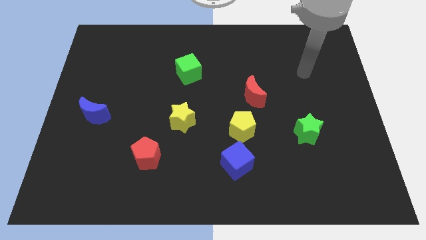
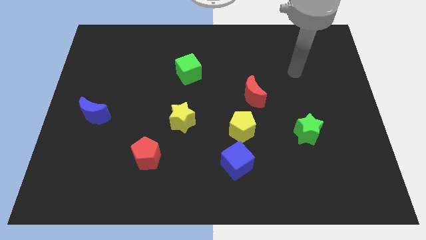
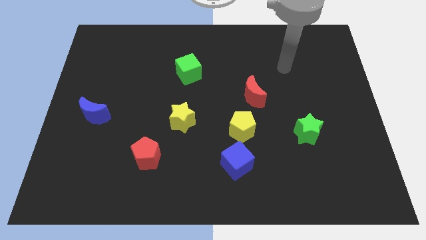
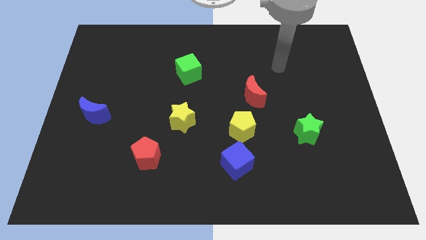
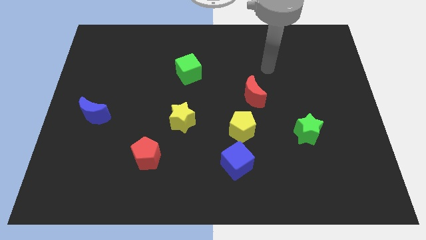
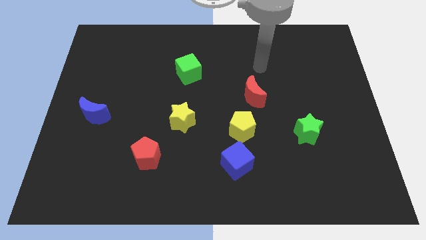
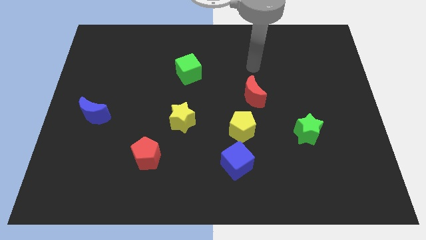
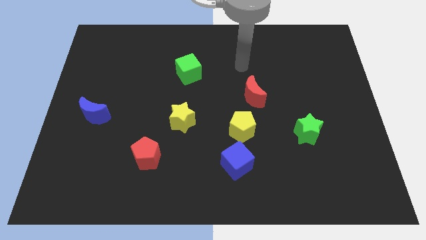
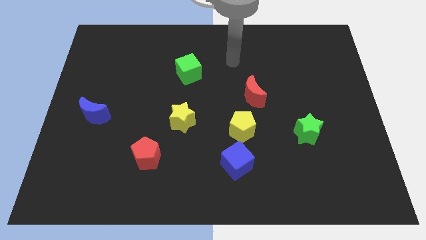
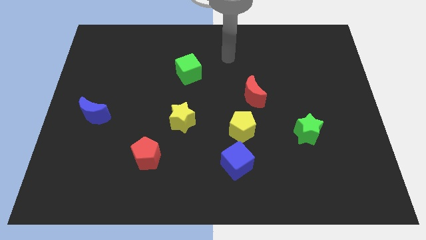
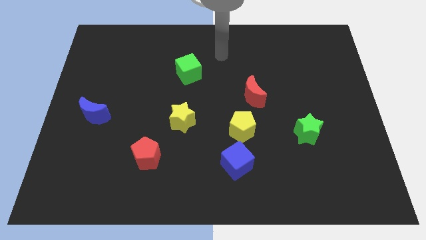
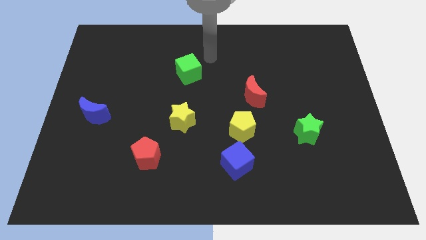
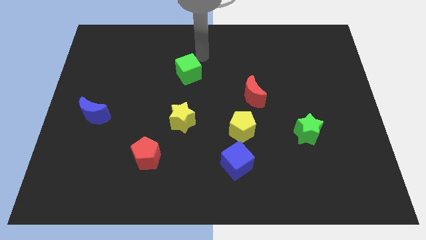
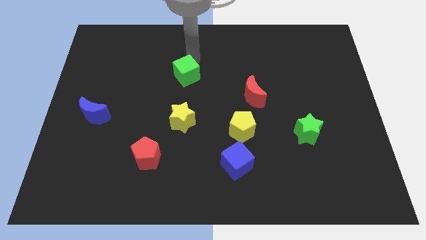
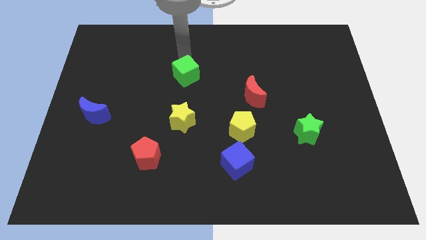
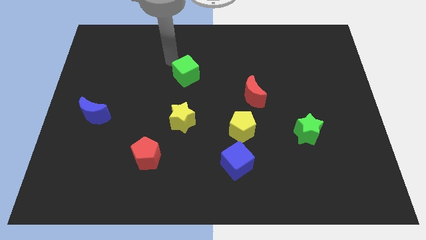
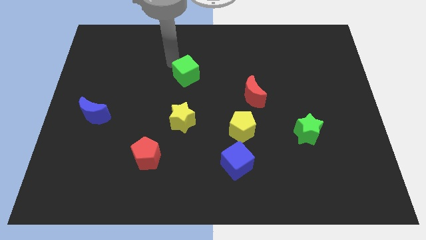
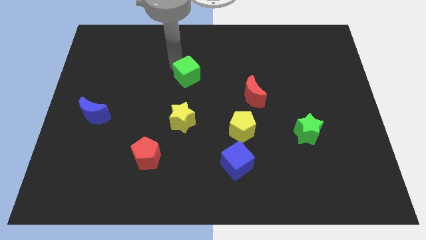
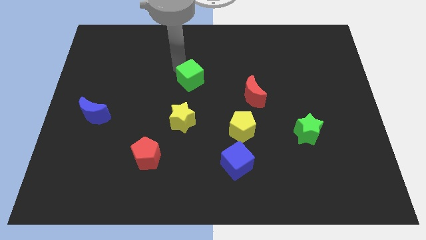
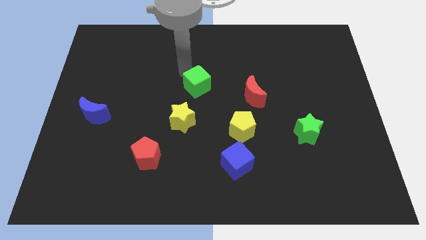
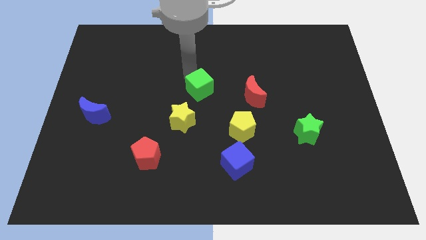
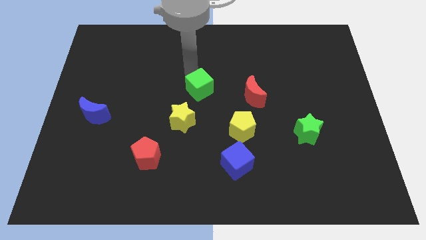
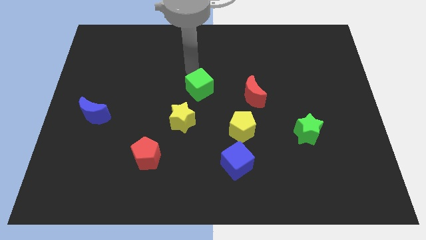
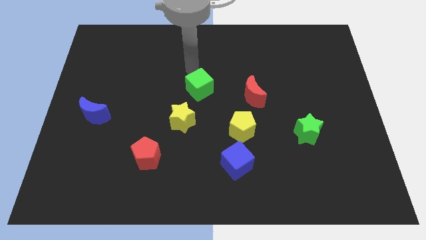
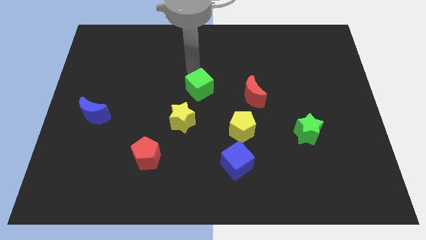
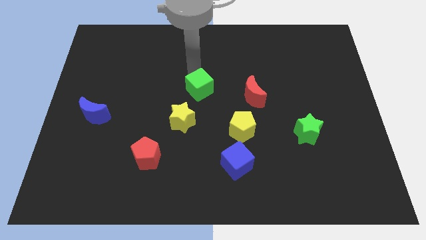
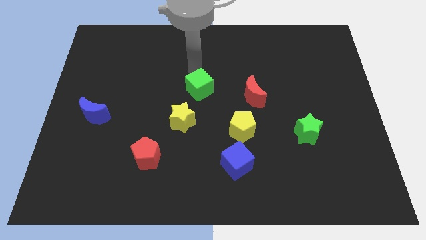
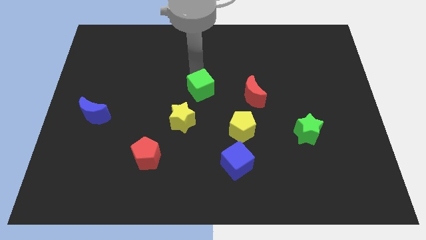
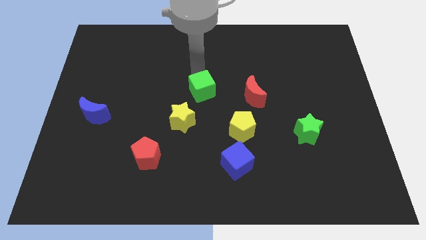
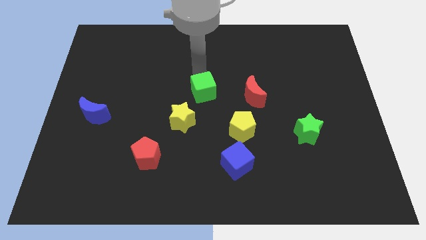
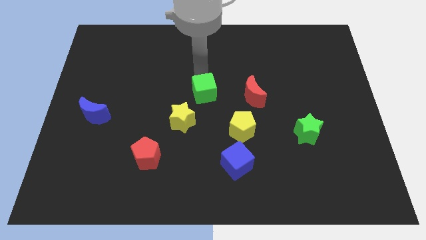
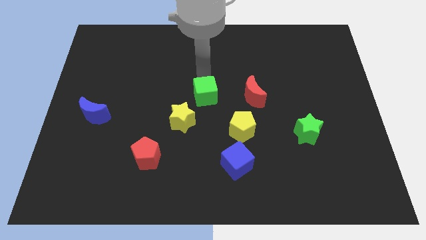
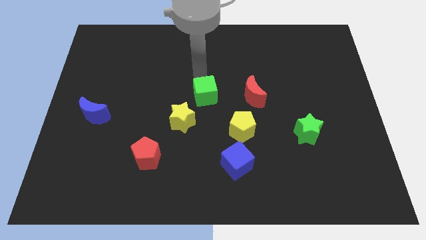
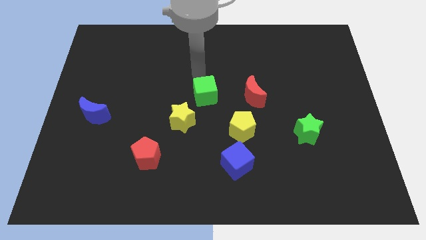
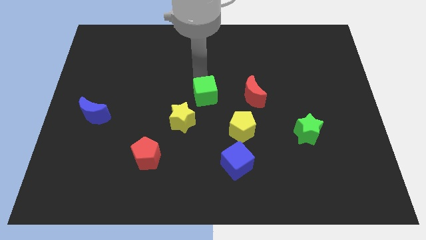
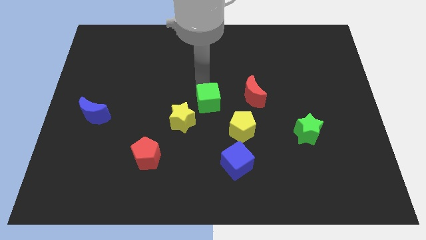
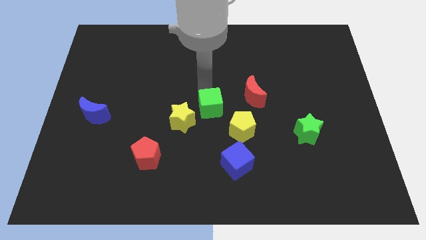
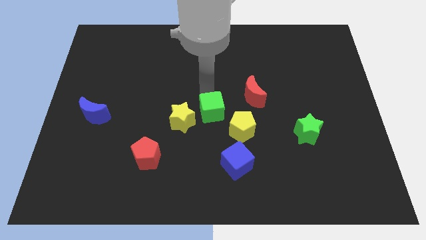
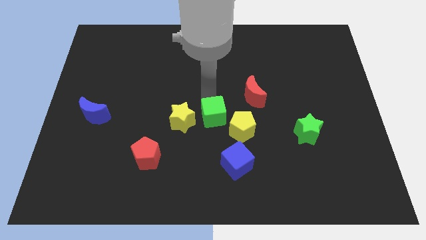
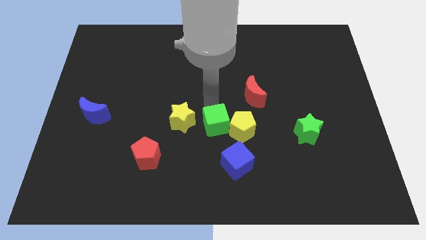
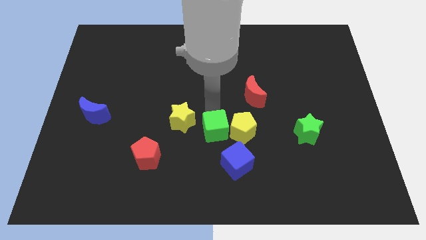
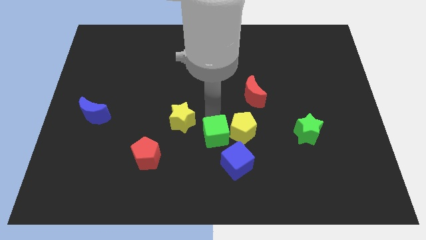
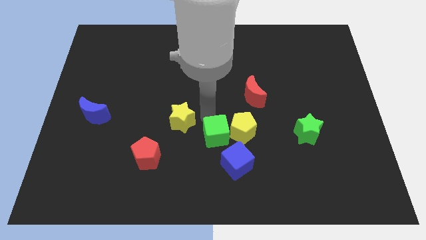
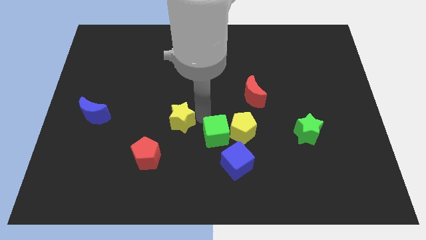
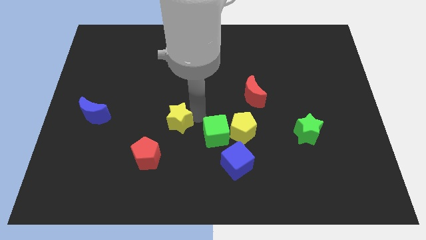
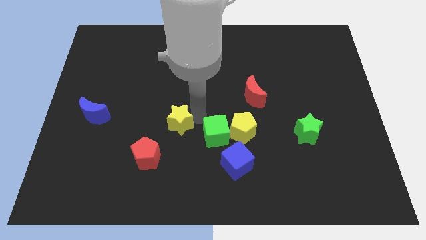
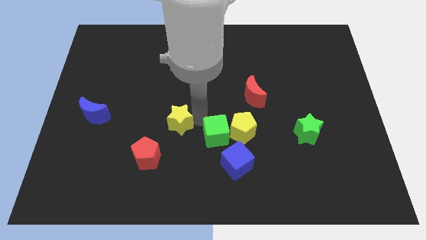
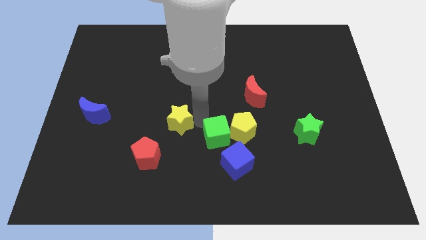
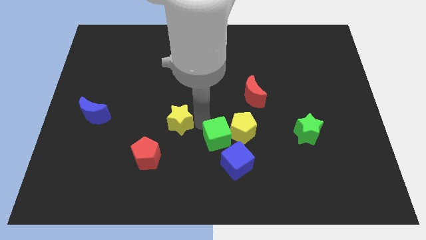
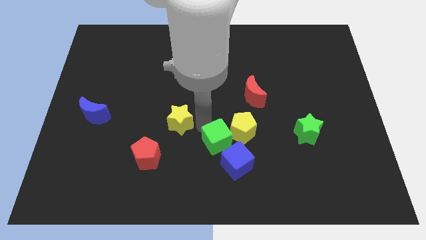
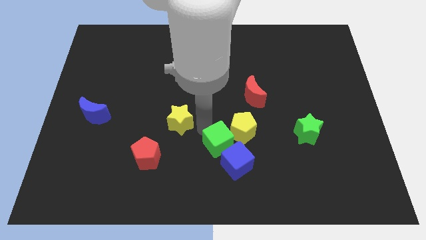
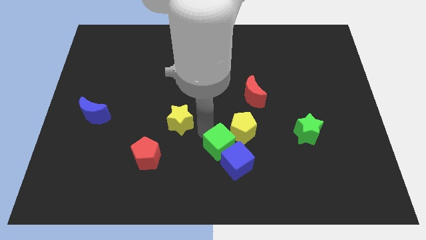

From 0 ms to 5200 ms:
slide the green cube next to the blue cube

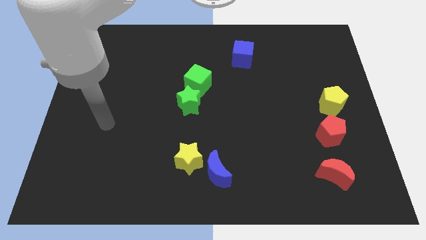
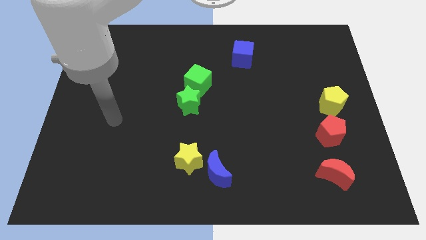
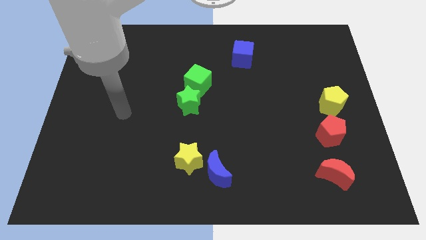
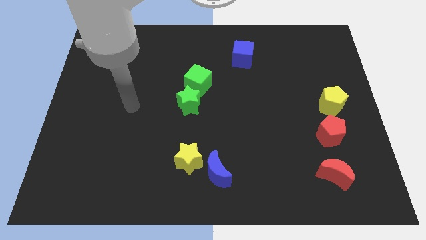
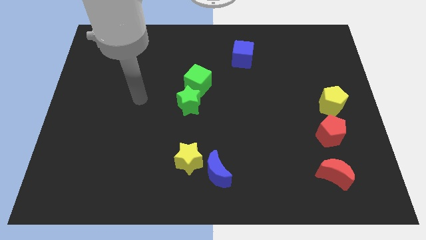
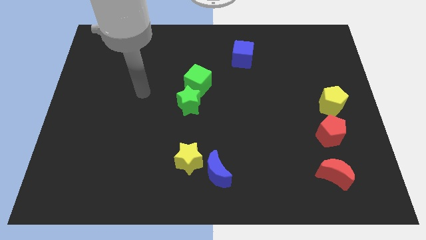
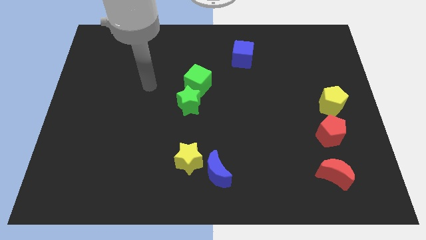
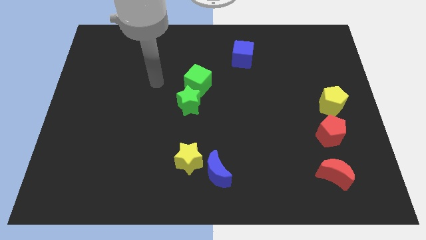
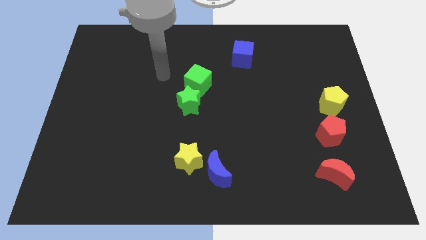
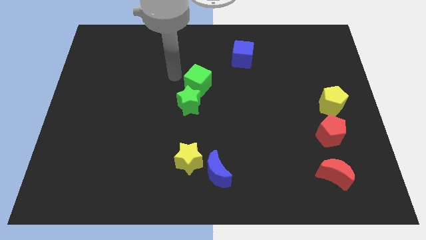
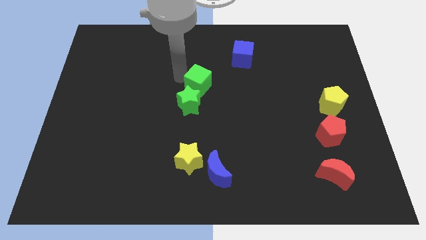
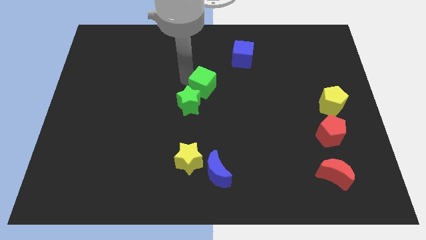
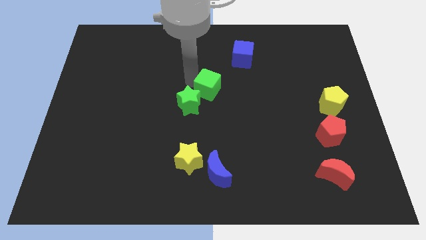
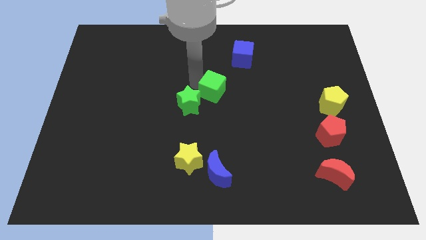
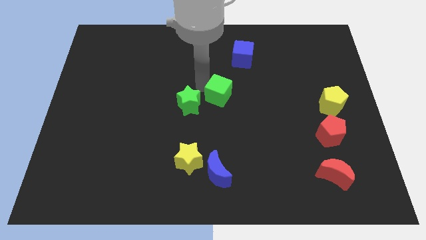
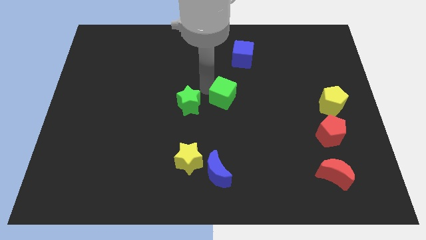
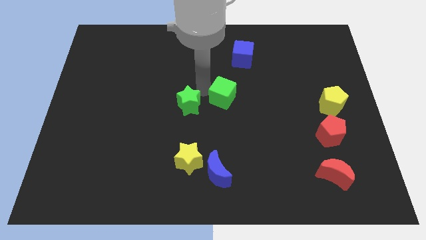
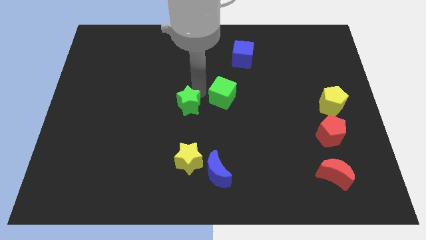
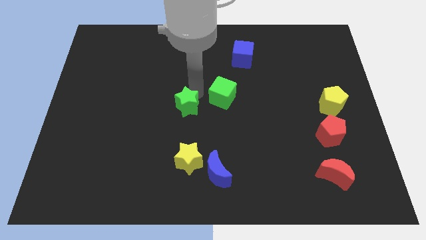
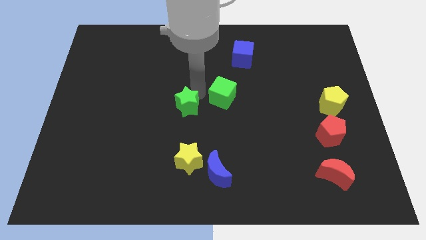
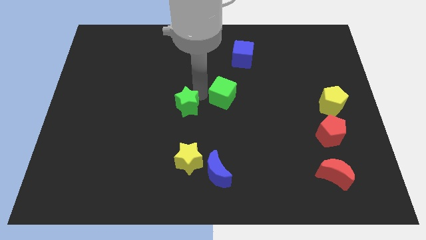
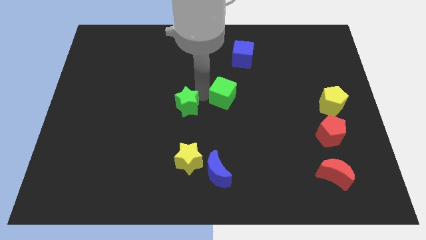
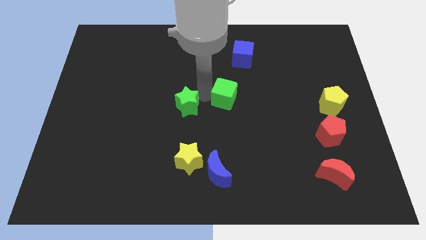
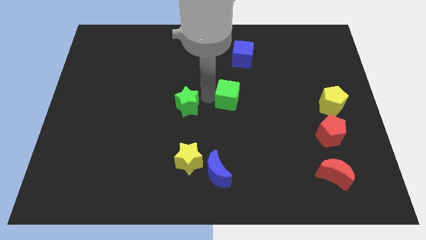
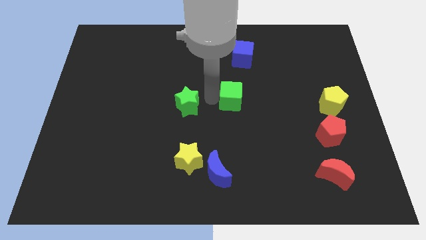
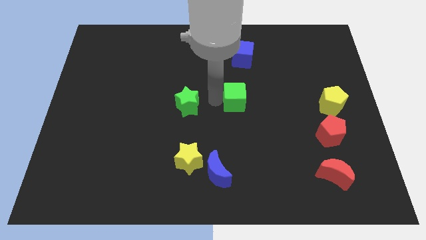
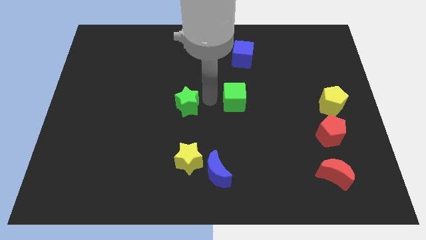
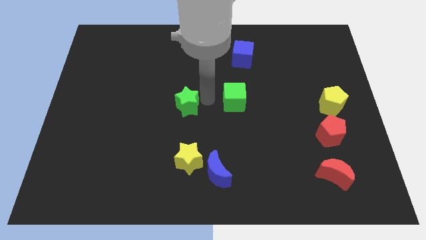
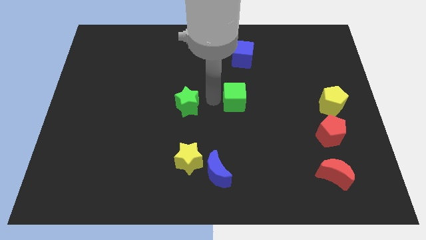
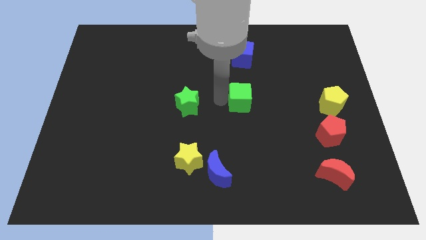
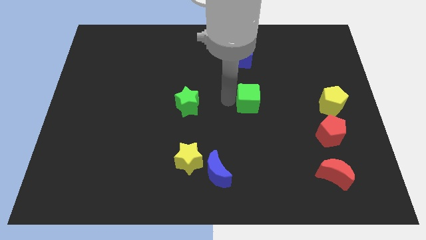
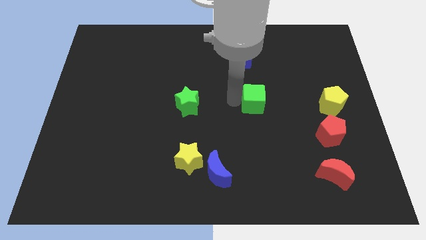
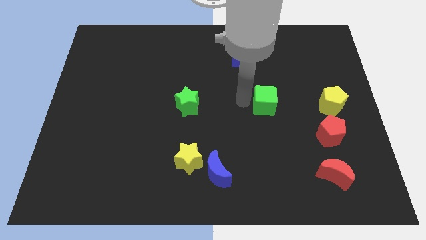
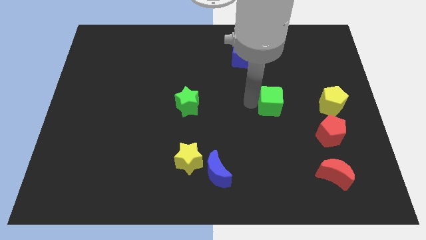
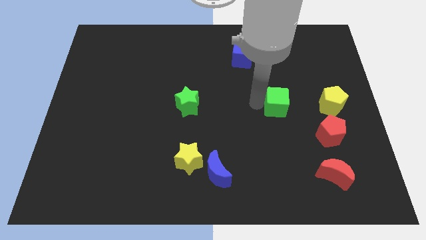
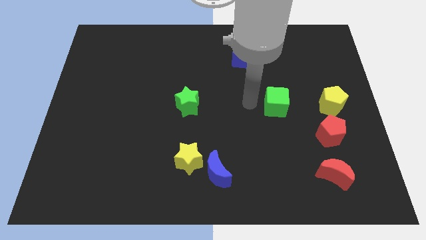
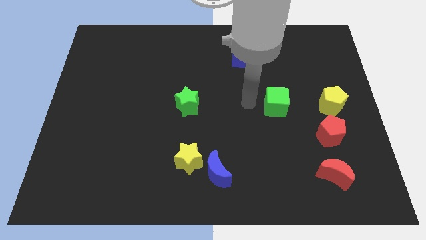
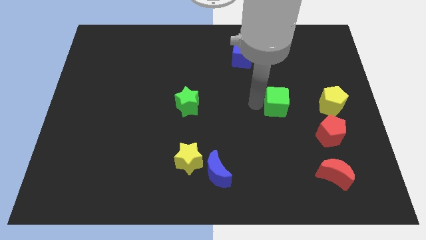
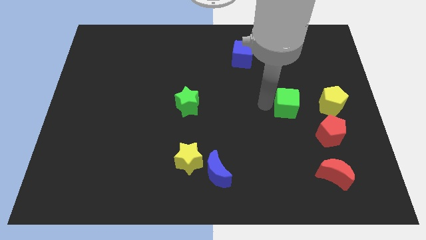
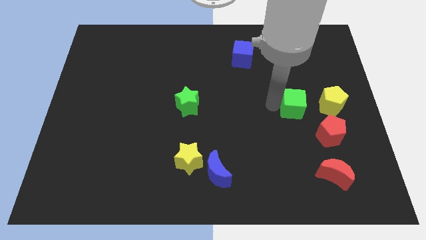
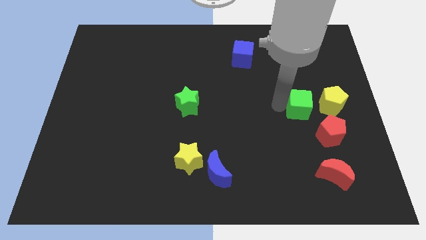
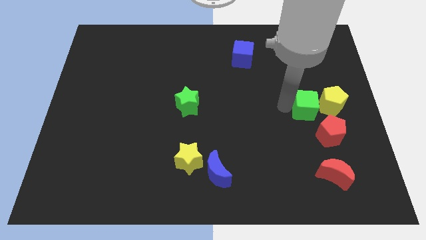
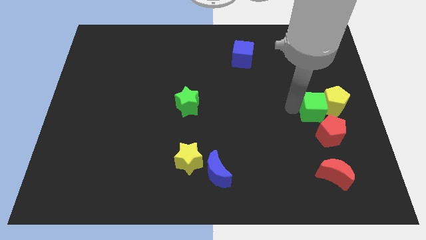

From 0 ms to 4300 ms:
push the green cube close to the yellow pentagon
